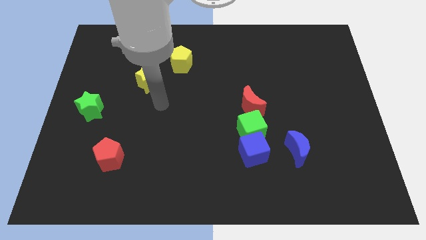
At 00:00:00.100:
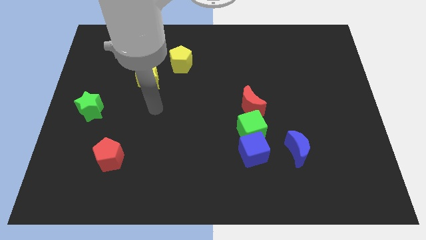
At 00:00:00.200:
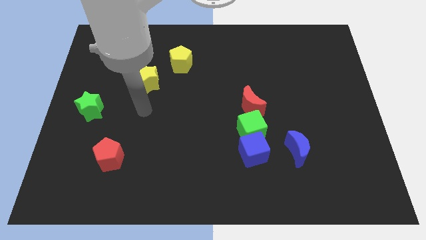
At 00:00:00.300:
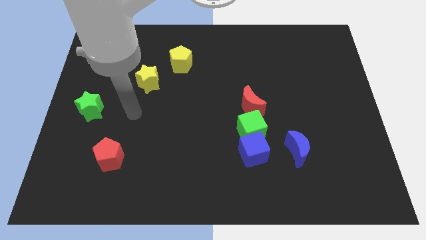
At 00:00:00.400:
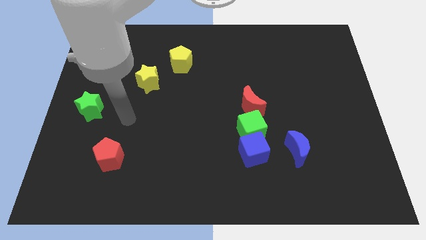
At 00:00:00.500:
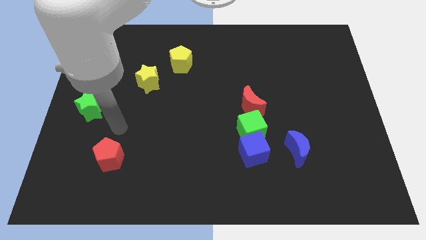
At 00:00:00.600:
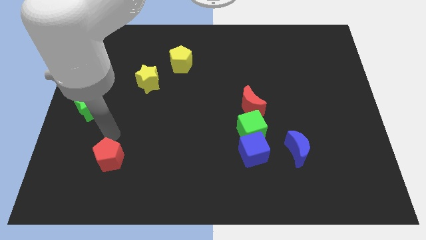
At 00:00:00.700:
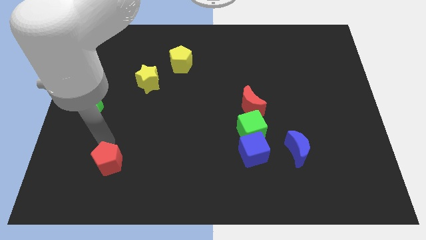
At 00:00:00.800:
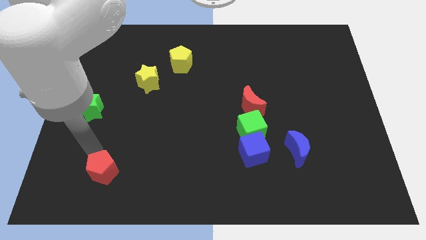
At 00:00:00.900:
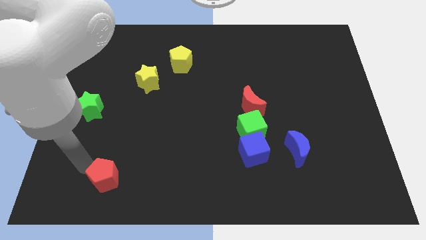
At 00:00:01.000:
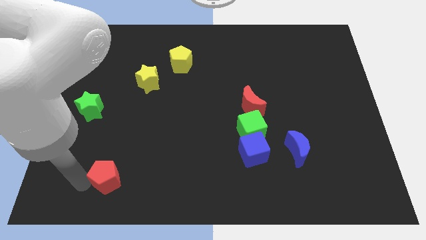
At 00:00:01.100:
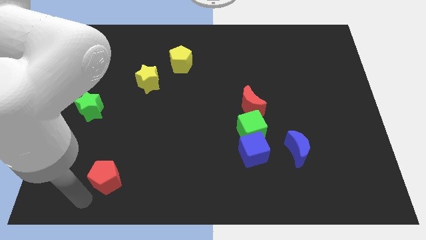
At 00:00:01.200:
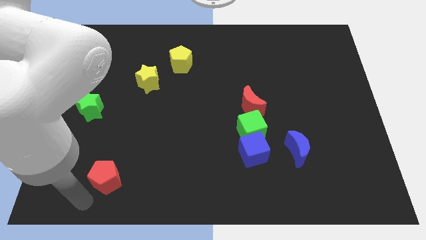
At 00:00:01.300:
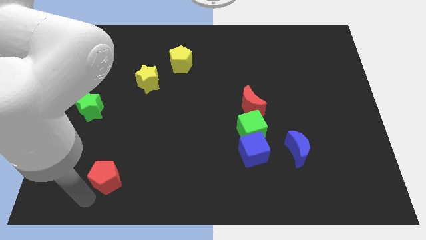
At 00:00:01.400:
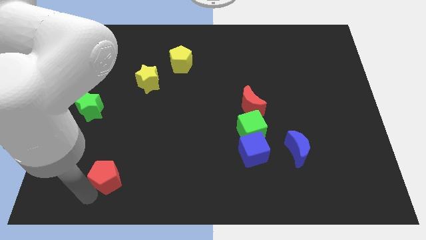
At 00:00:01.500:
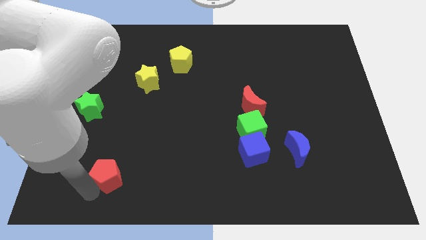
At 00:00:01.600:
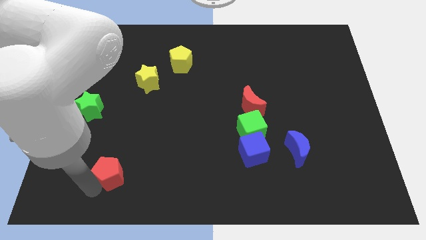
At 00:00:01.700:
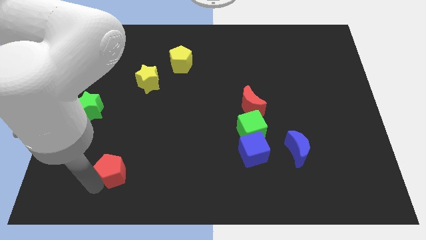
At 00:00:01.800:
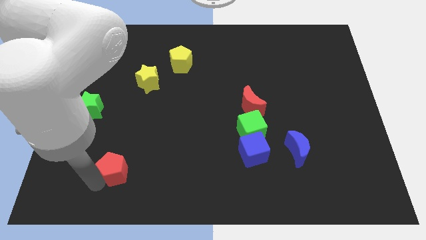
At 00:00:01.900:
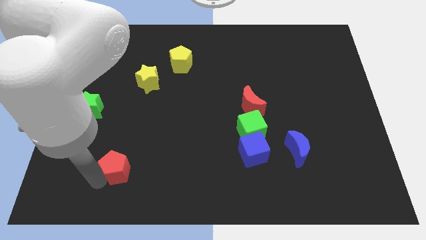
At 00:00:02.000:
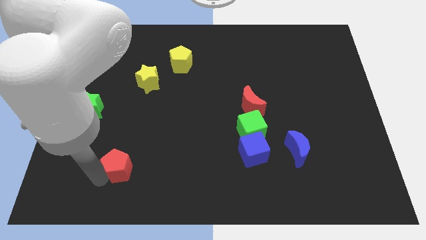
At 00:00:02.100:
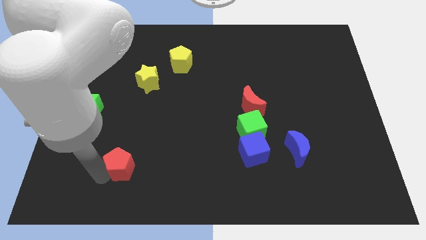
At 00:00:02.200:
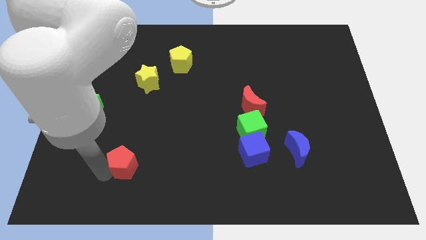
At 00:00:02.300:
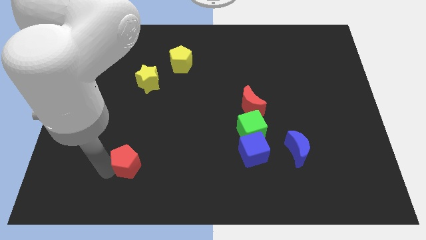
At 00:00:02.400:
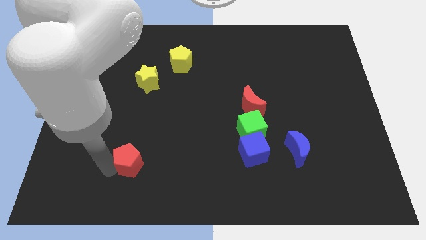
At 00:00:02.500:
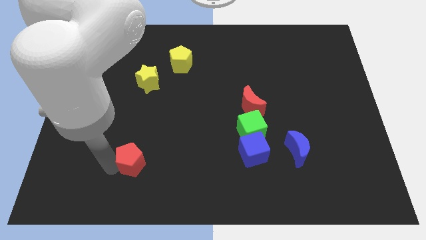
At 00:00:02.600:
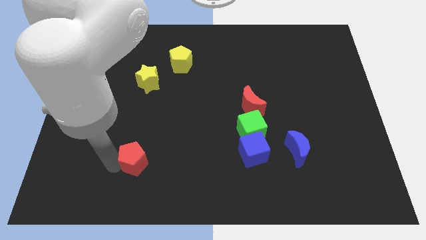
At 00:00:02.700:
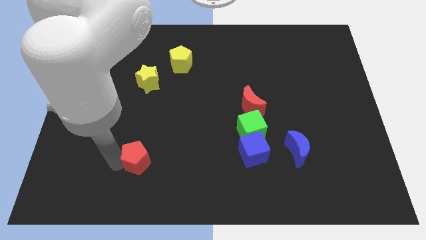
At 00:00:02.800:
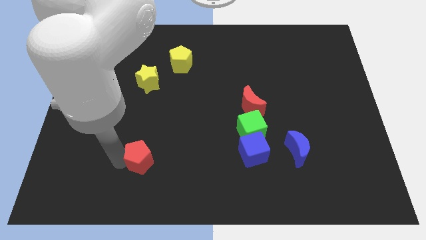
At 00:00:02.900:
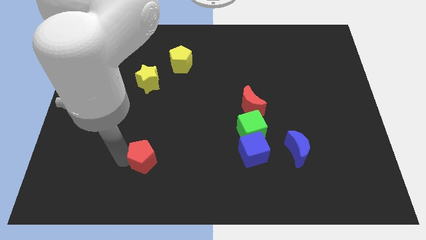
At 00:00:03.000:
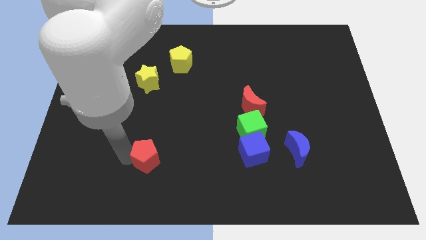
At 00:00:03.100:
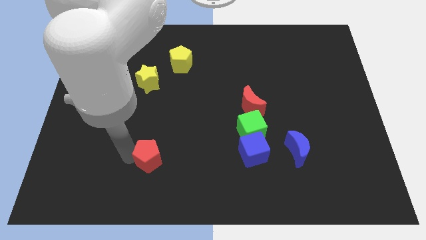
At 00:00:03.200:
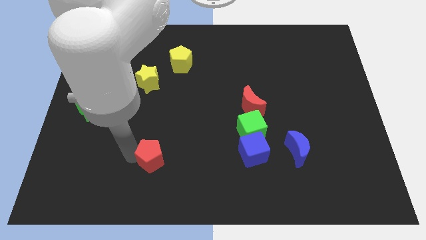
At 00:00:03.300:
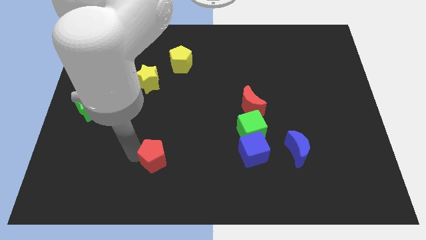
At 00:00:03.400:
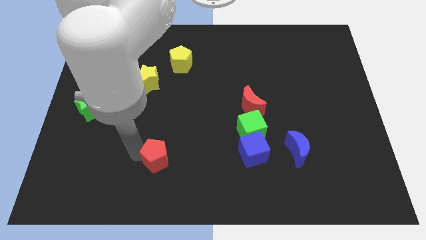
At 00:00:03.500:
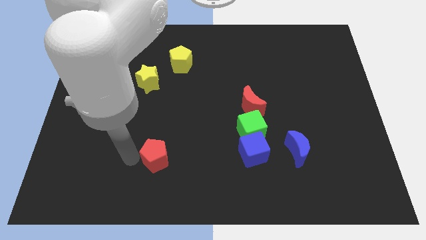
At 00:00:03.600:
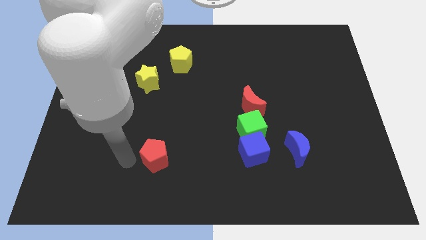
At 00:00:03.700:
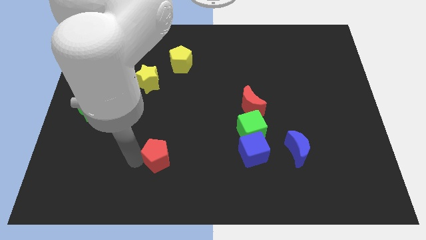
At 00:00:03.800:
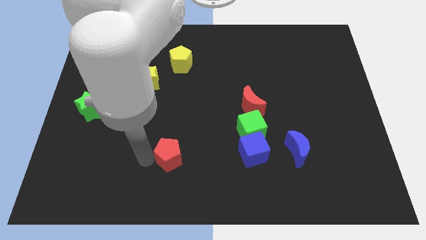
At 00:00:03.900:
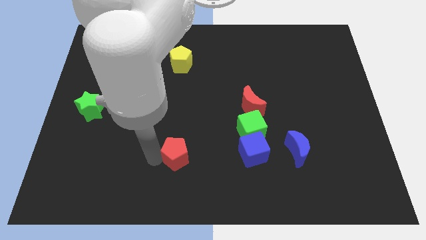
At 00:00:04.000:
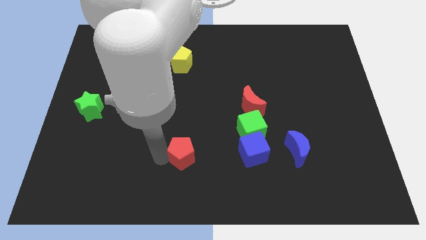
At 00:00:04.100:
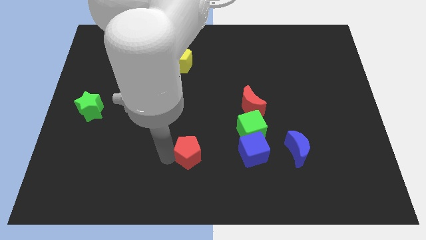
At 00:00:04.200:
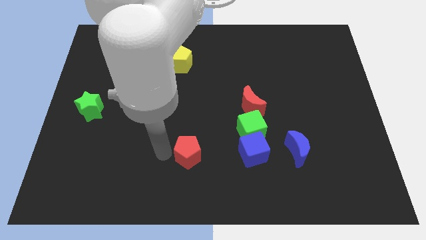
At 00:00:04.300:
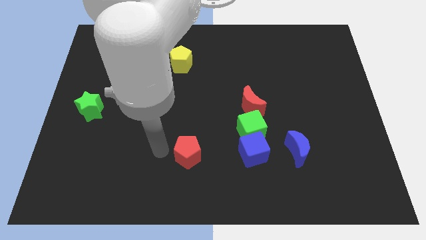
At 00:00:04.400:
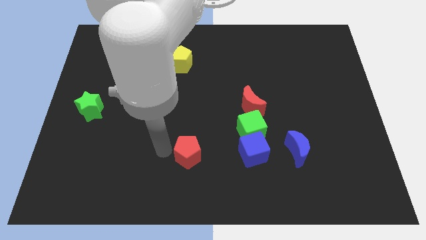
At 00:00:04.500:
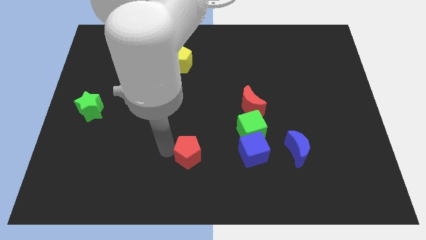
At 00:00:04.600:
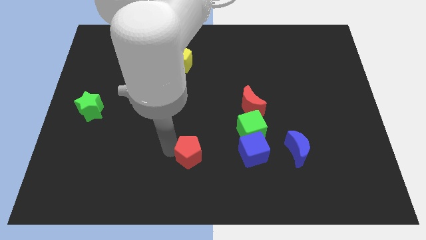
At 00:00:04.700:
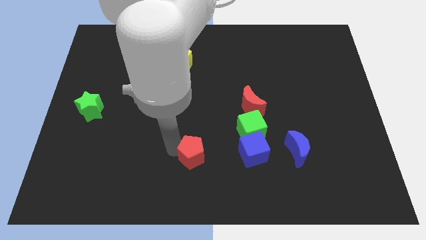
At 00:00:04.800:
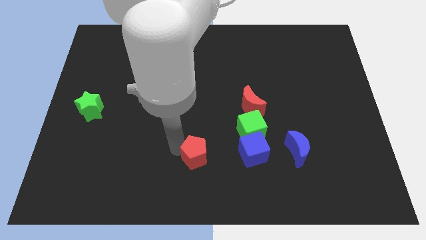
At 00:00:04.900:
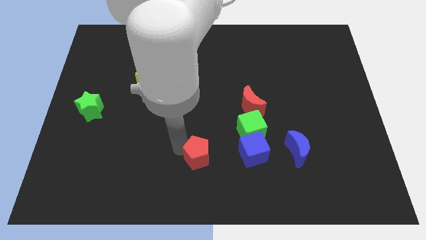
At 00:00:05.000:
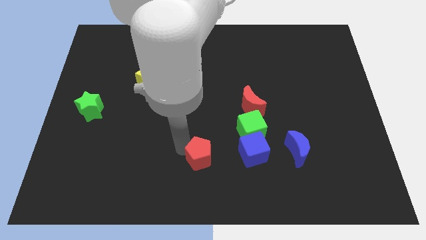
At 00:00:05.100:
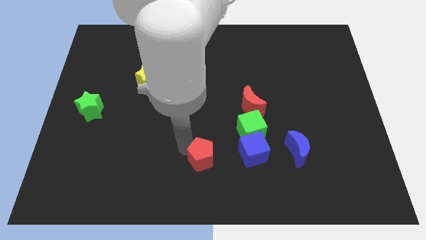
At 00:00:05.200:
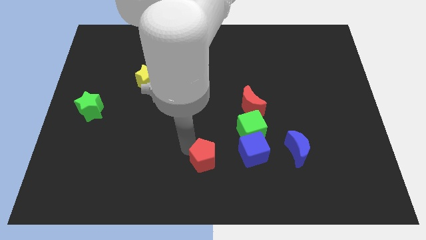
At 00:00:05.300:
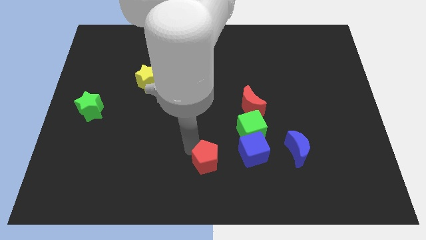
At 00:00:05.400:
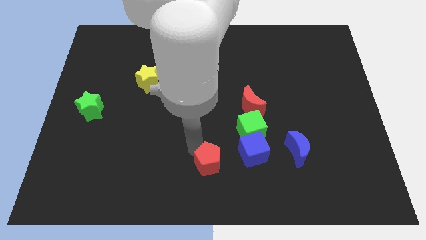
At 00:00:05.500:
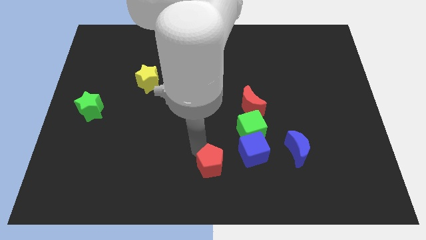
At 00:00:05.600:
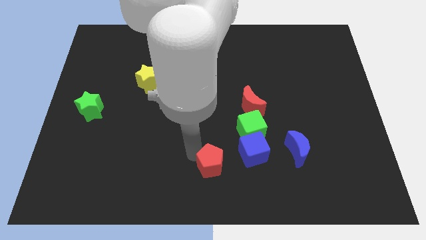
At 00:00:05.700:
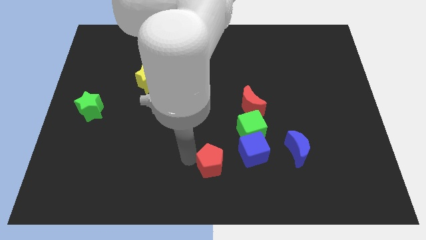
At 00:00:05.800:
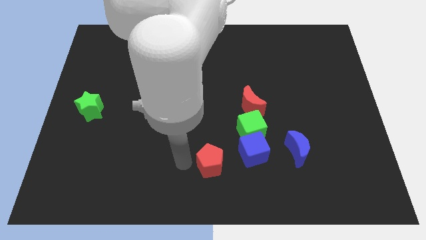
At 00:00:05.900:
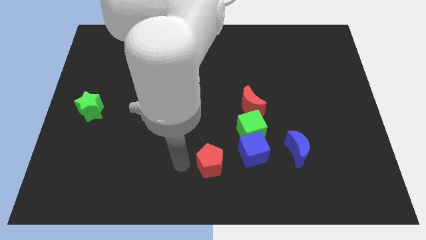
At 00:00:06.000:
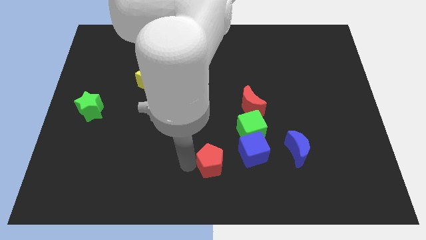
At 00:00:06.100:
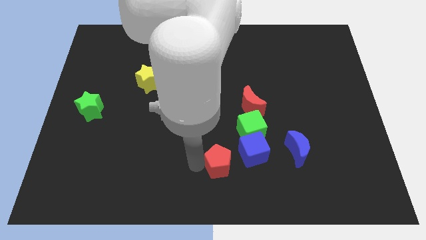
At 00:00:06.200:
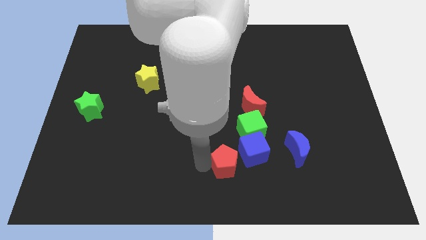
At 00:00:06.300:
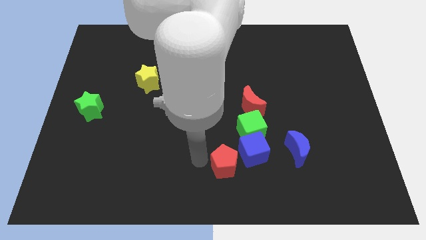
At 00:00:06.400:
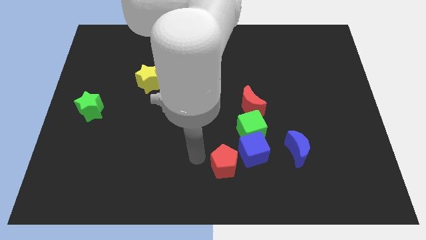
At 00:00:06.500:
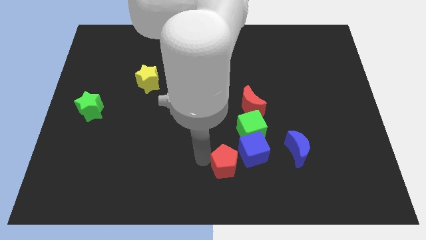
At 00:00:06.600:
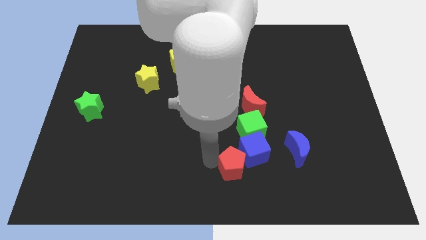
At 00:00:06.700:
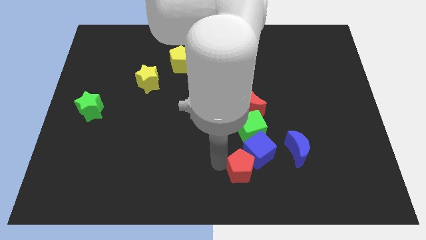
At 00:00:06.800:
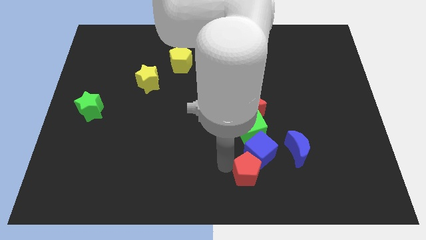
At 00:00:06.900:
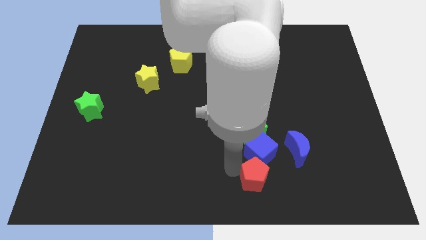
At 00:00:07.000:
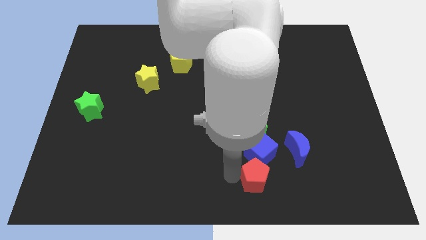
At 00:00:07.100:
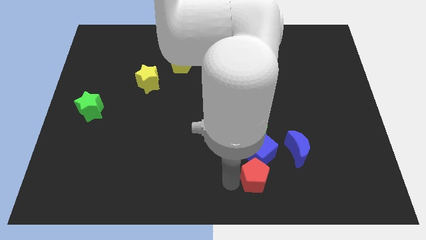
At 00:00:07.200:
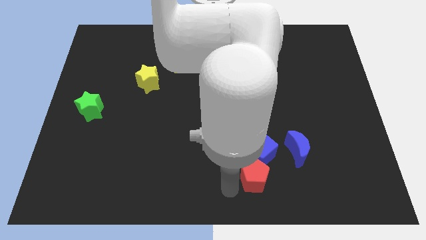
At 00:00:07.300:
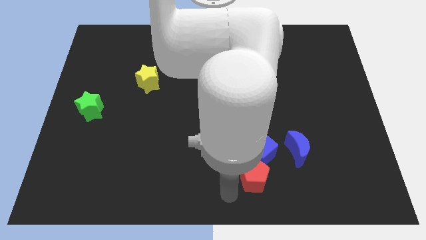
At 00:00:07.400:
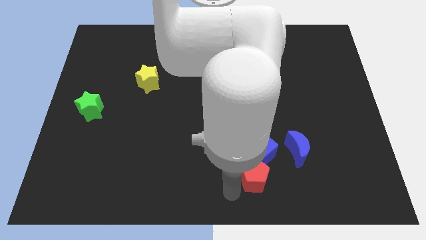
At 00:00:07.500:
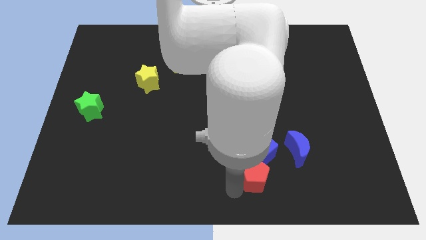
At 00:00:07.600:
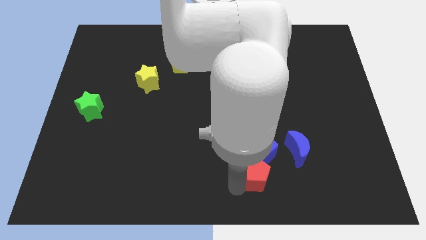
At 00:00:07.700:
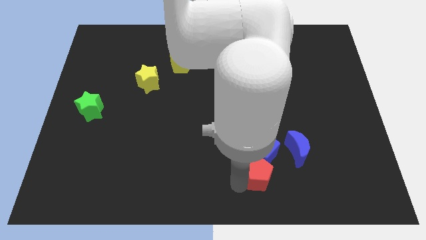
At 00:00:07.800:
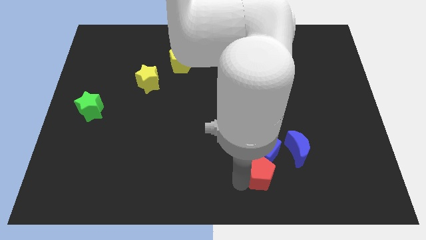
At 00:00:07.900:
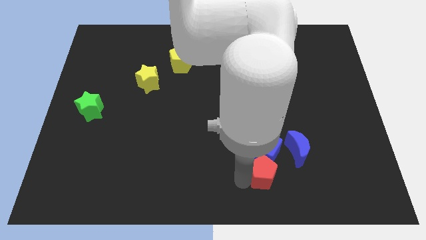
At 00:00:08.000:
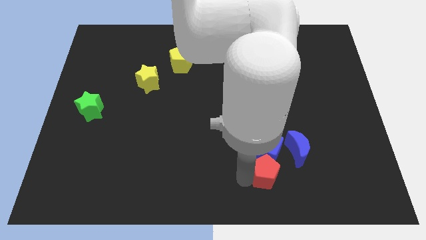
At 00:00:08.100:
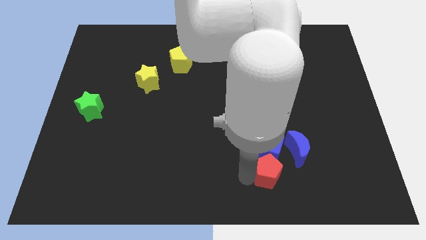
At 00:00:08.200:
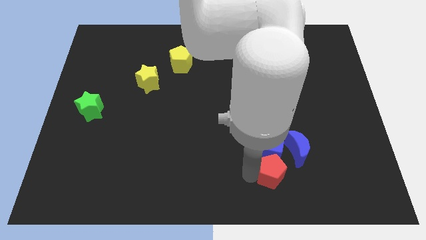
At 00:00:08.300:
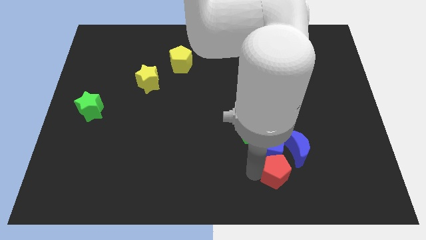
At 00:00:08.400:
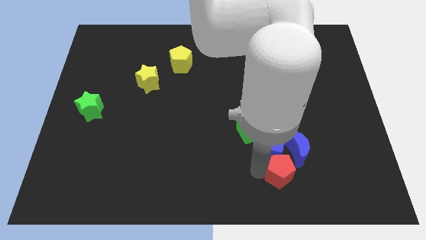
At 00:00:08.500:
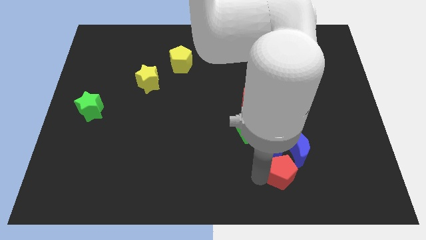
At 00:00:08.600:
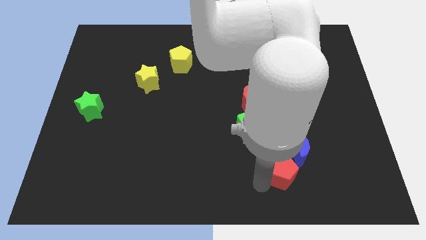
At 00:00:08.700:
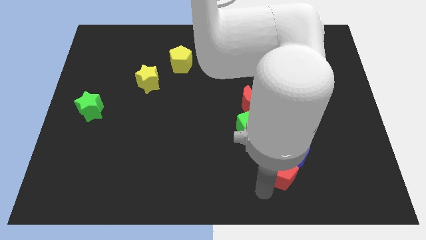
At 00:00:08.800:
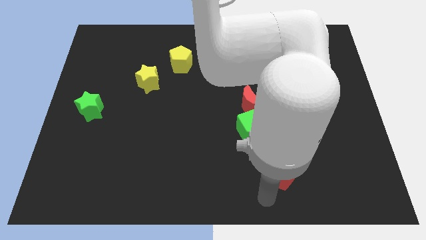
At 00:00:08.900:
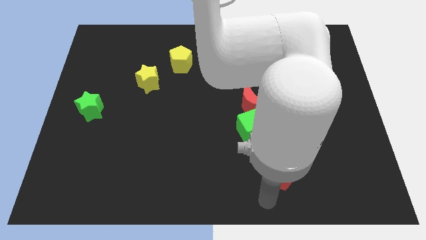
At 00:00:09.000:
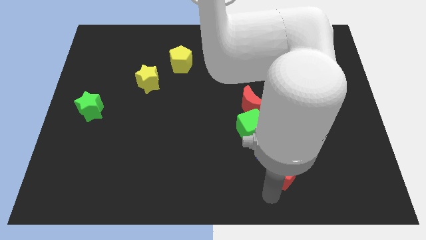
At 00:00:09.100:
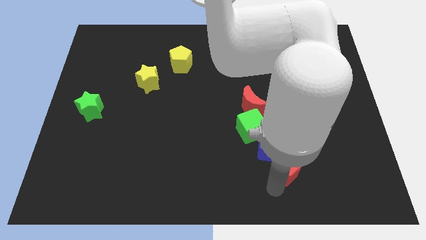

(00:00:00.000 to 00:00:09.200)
push the red pentagon to the blue moon
